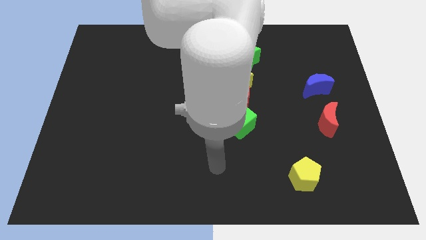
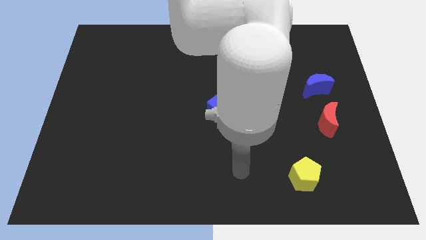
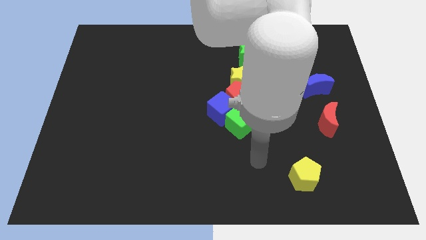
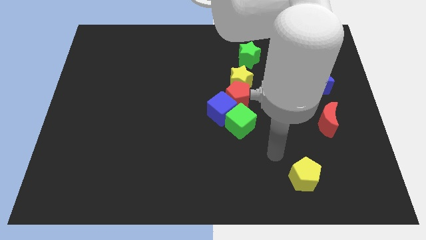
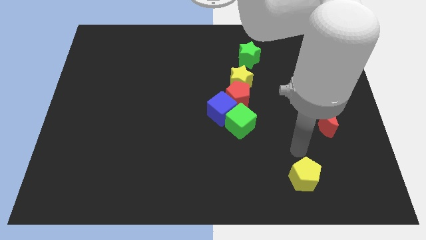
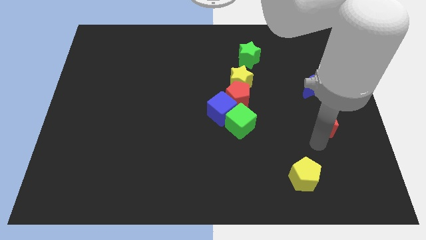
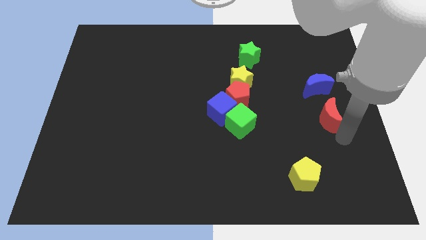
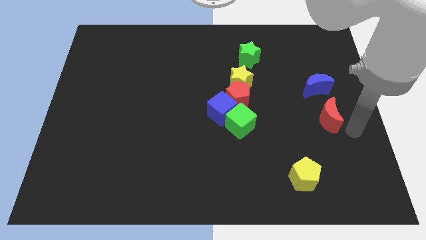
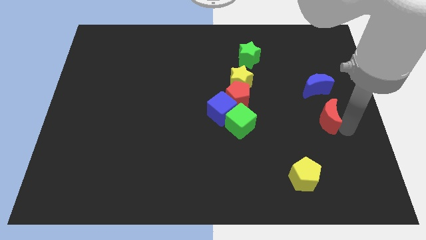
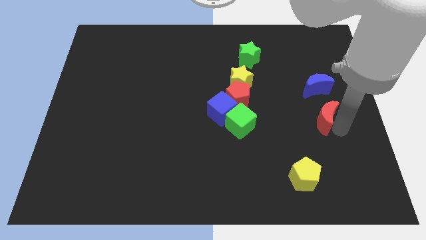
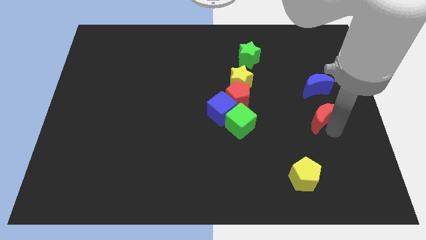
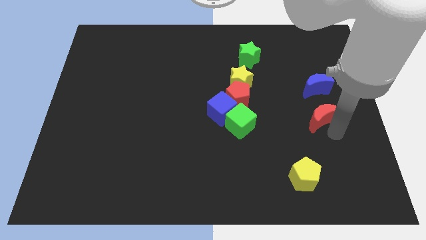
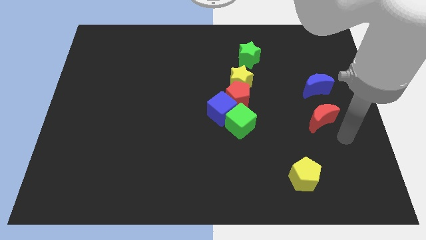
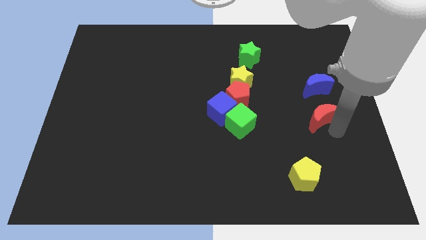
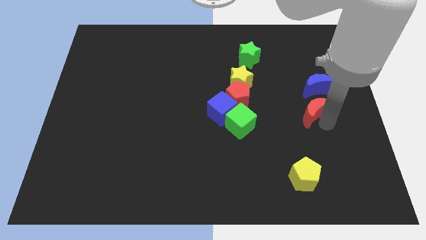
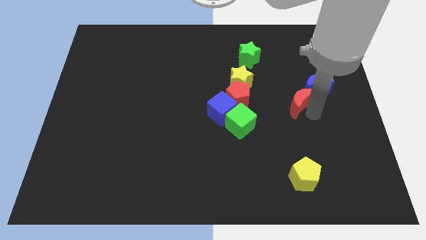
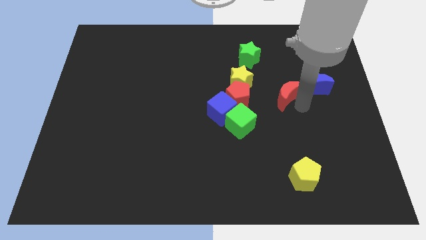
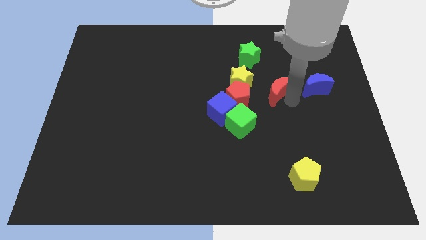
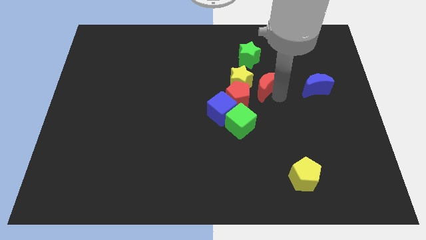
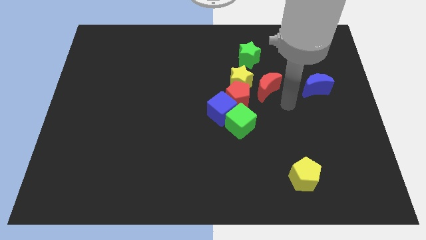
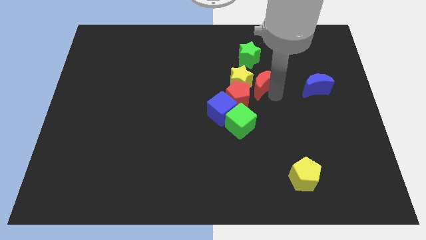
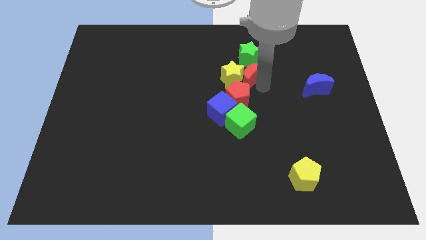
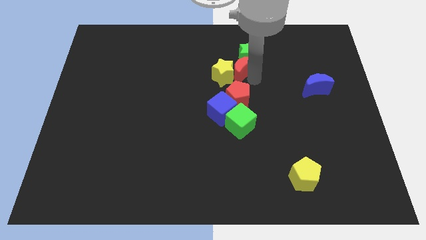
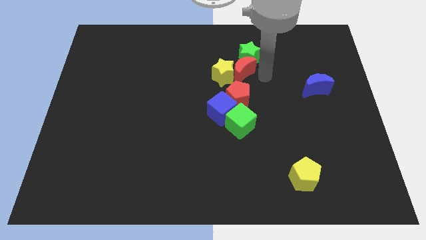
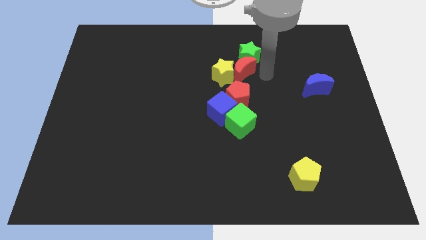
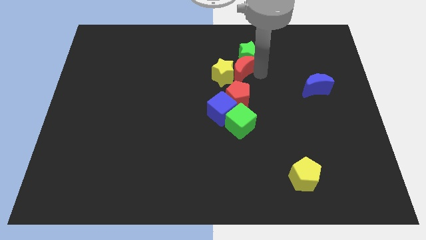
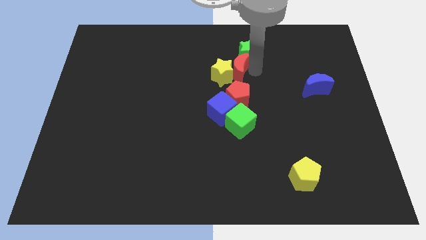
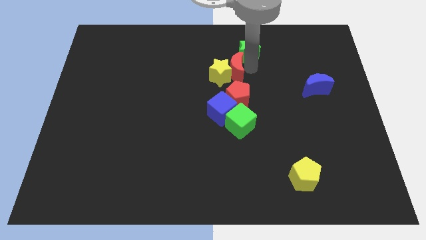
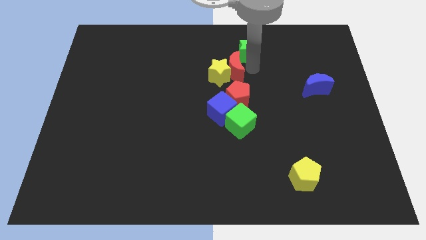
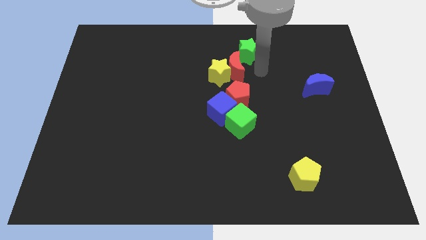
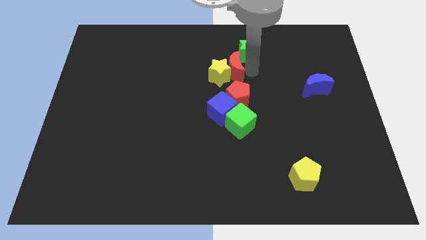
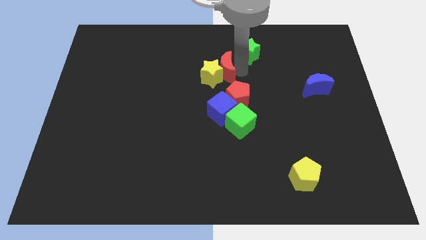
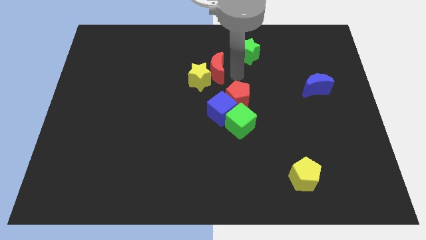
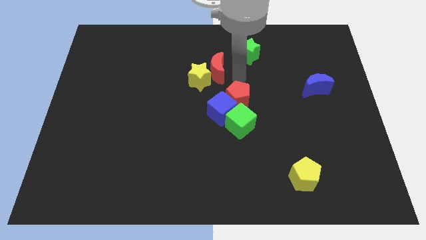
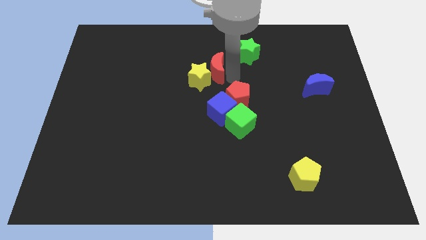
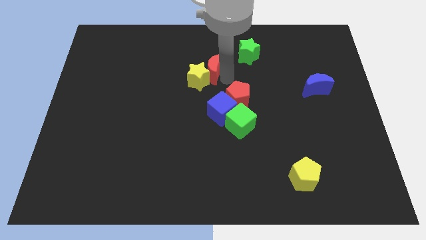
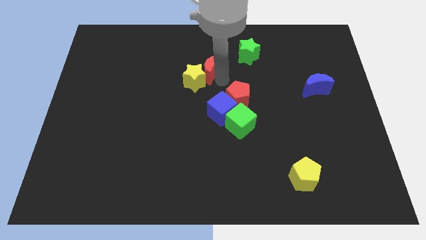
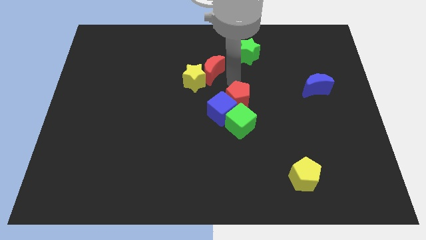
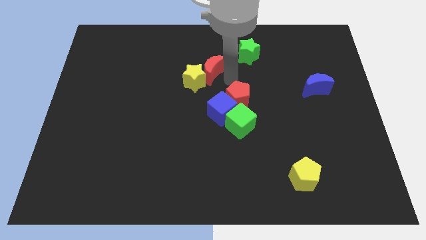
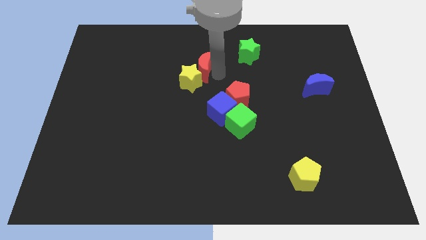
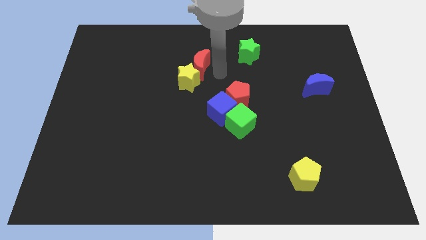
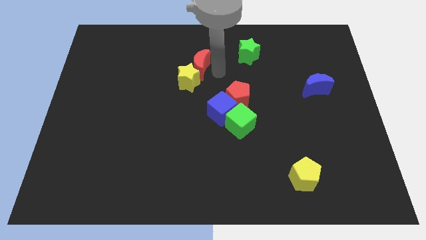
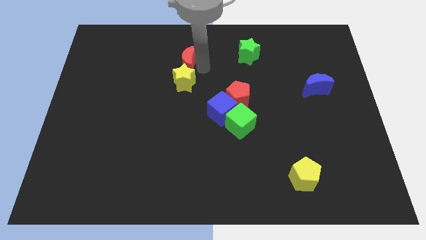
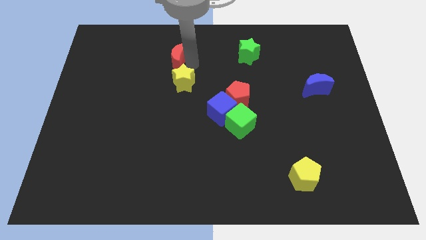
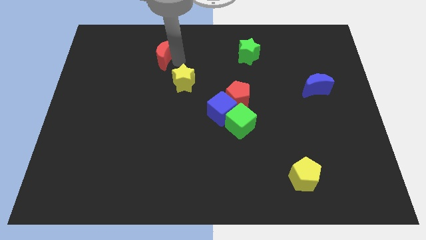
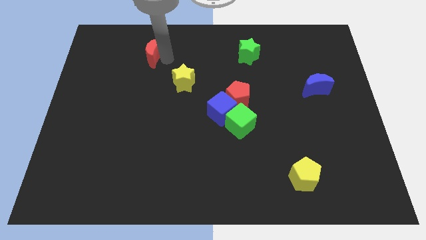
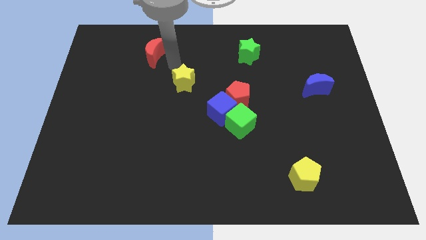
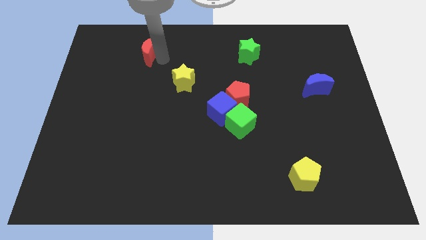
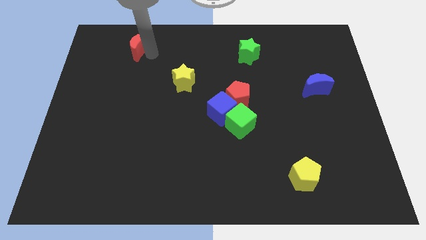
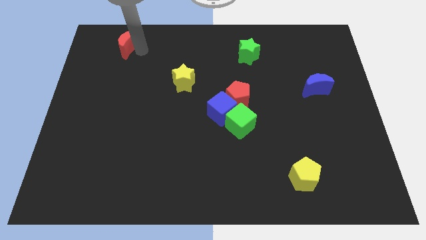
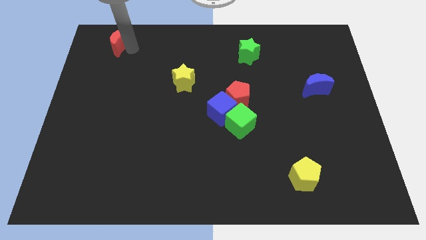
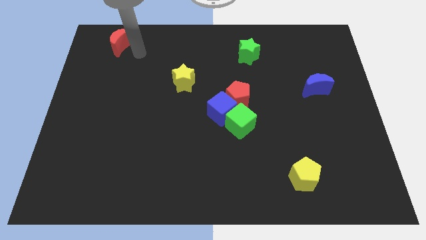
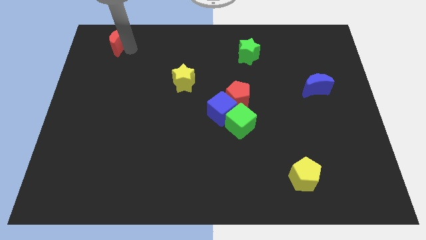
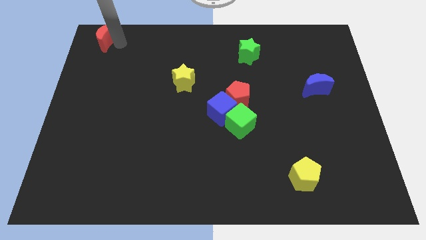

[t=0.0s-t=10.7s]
push the red moon to the top left of the board

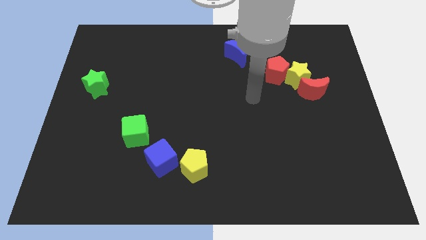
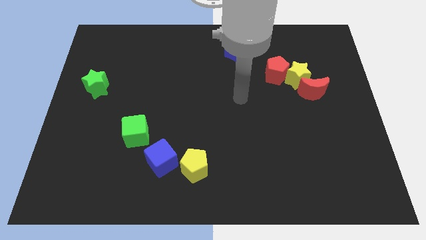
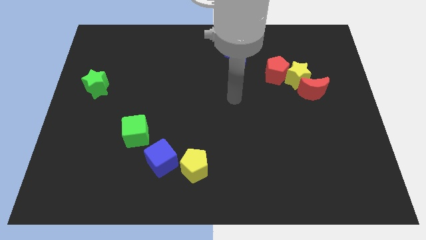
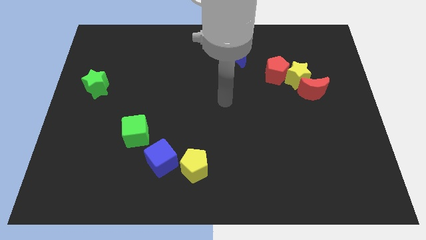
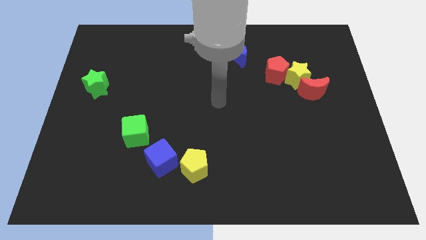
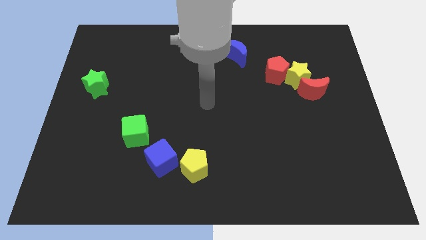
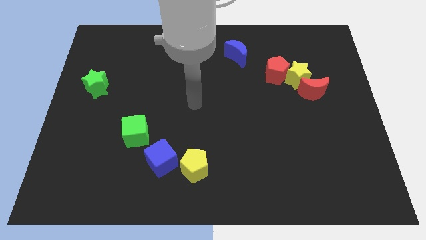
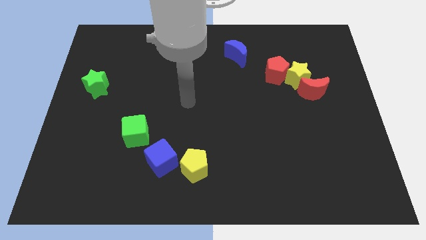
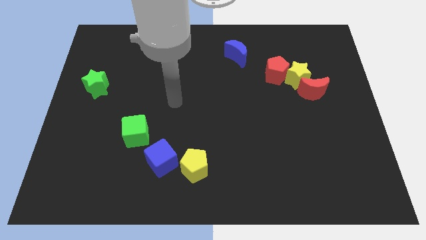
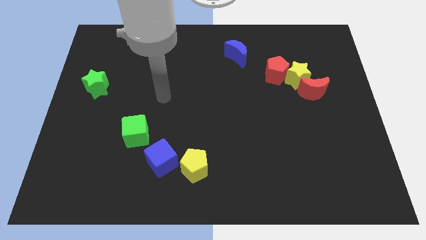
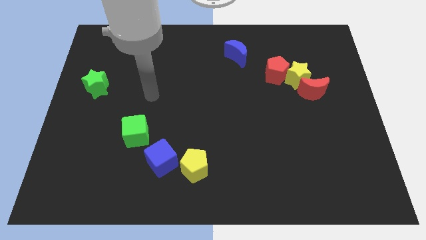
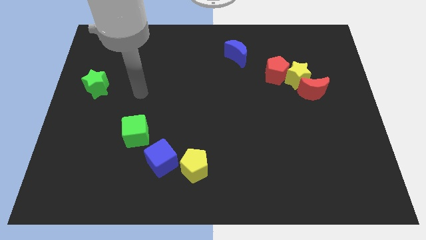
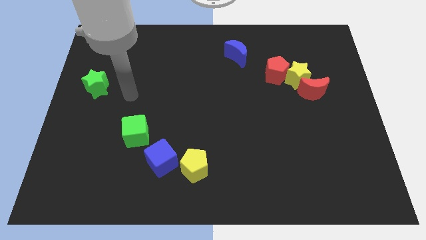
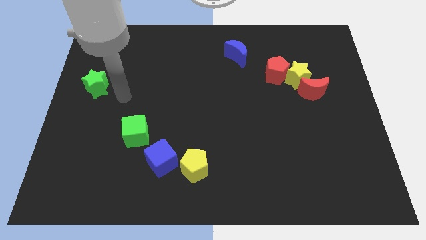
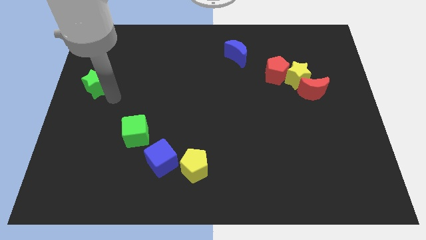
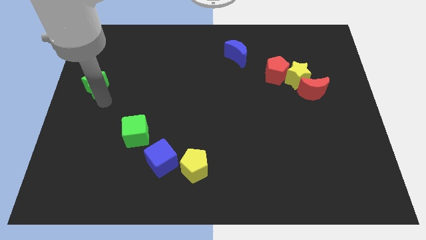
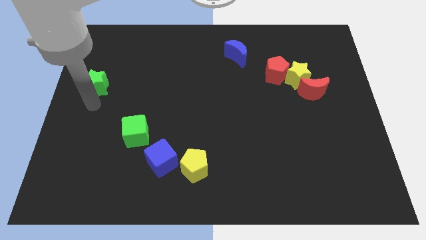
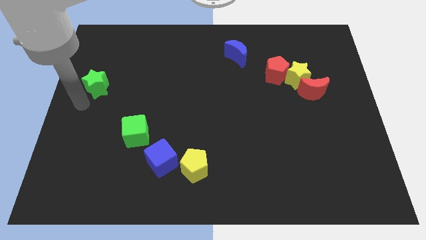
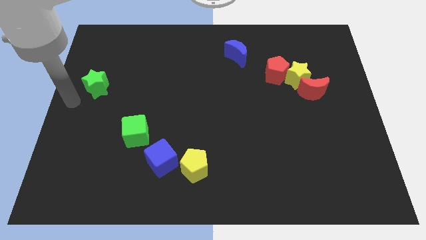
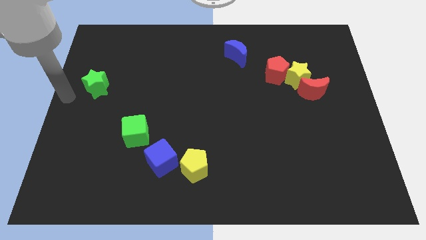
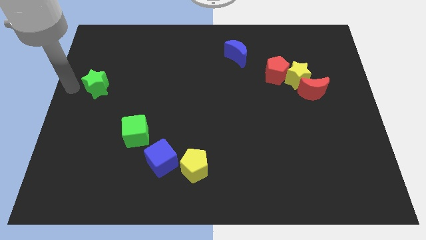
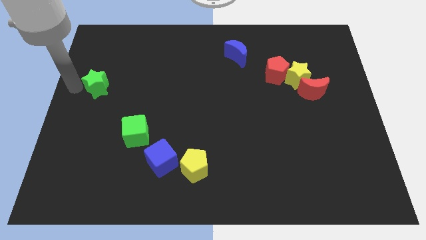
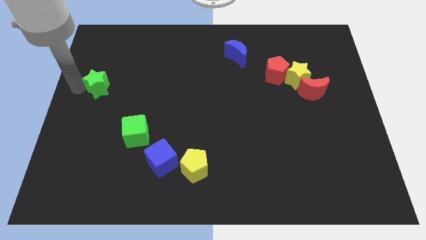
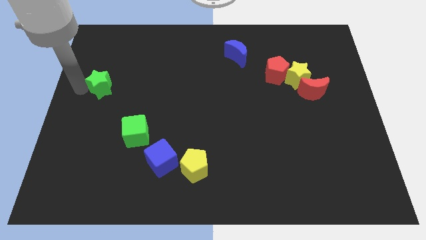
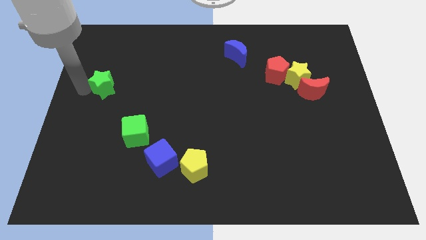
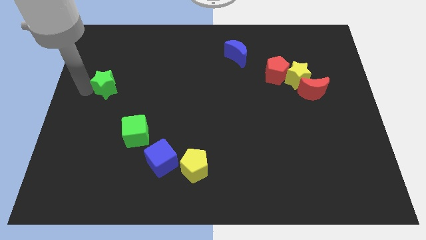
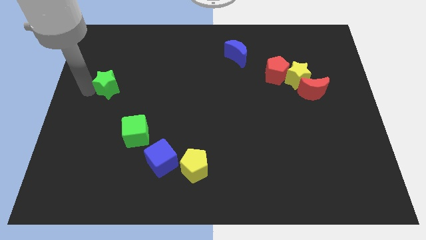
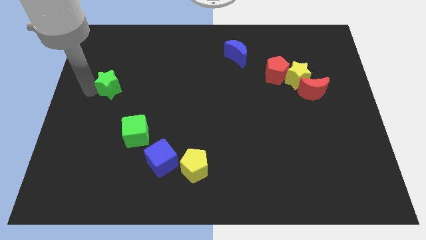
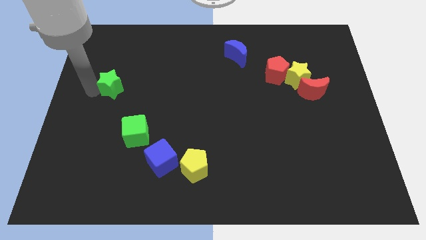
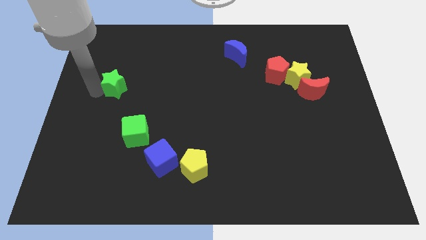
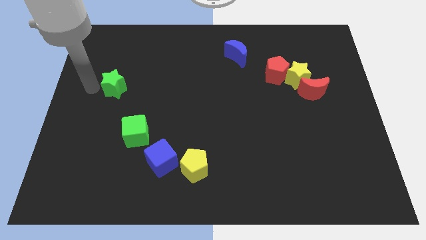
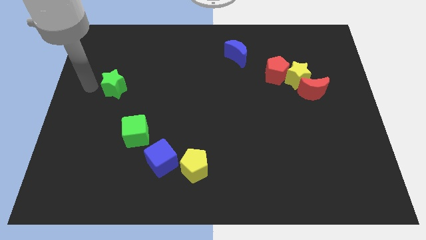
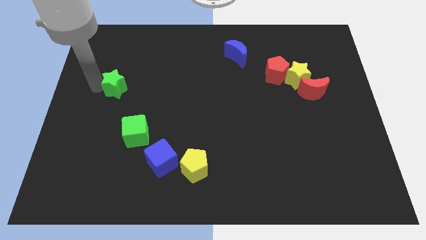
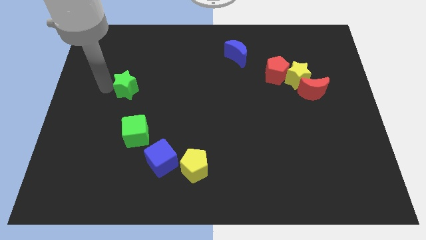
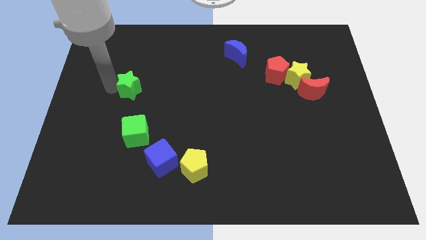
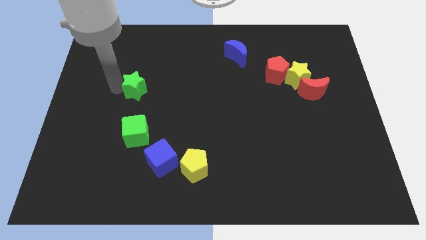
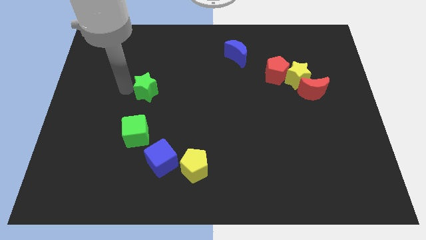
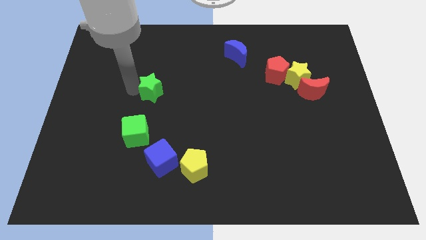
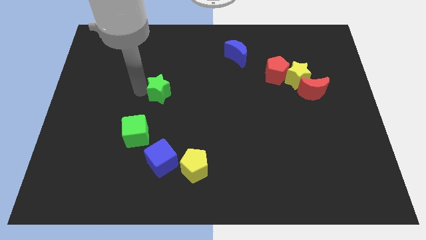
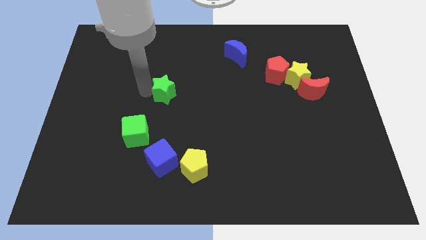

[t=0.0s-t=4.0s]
push the green star to the center of the board
